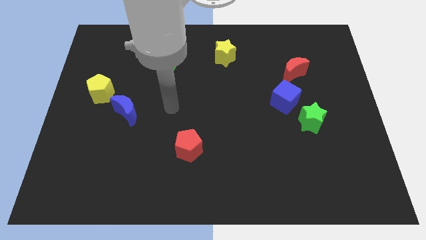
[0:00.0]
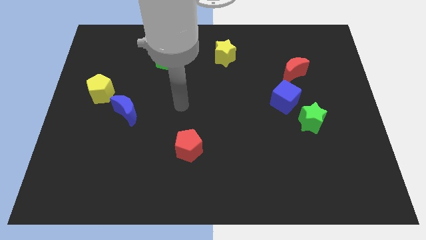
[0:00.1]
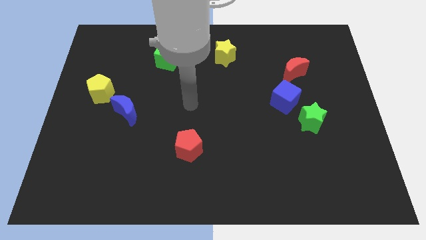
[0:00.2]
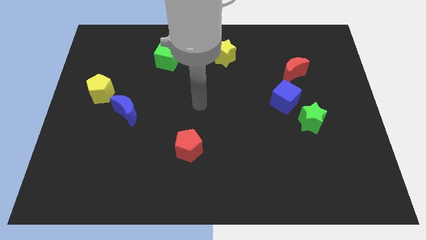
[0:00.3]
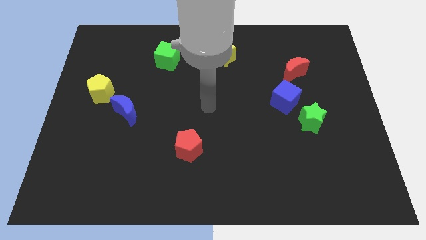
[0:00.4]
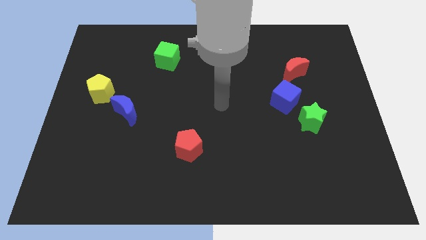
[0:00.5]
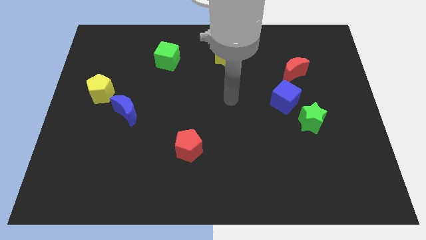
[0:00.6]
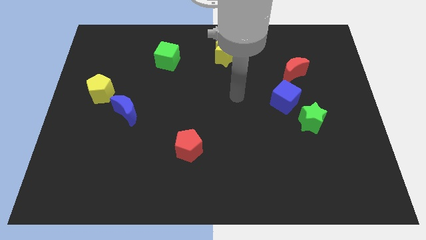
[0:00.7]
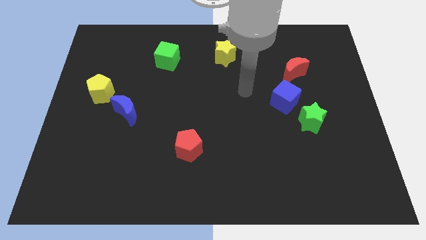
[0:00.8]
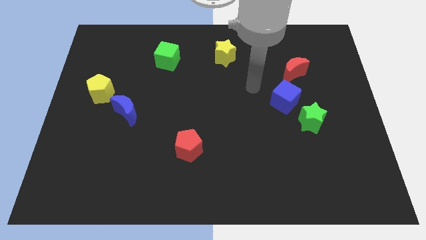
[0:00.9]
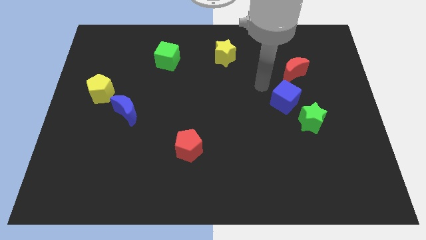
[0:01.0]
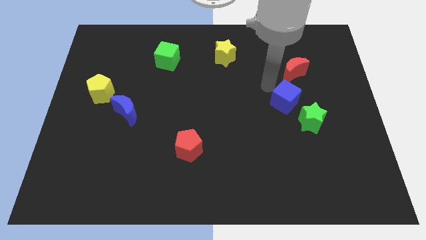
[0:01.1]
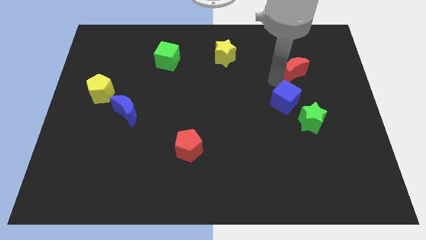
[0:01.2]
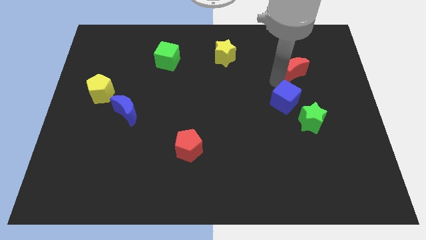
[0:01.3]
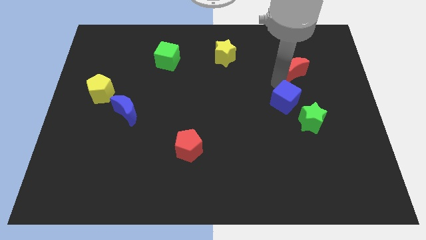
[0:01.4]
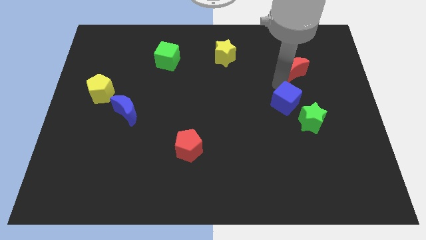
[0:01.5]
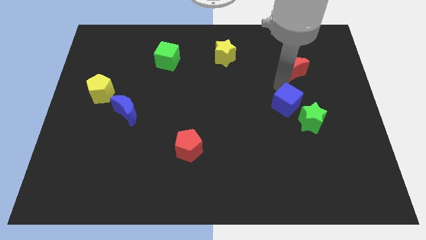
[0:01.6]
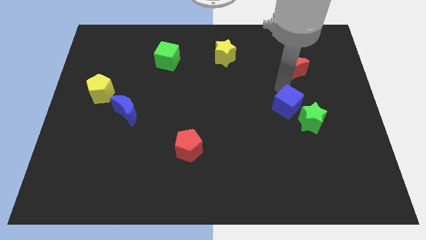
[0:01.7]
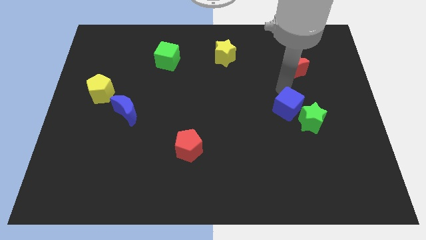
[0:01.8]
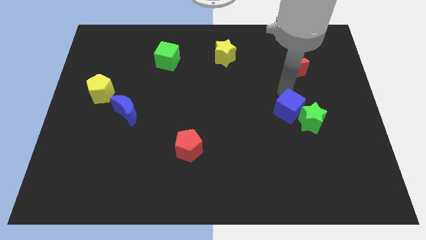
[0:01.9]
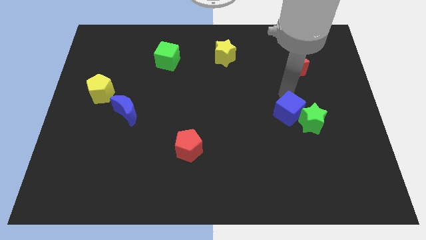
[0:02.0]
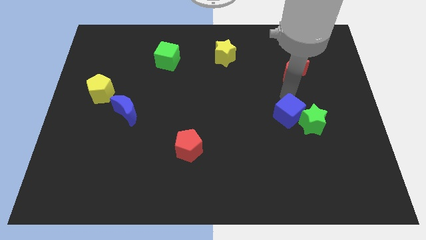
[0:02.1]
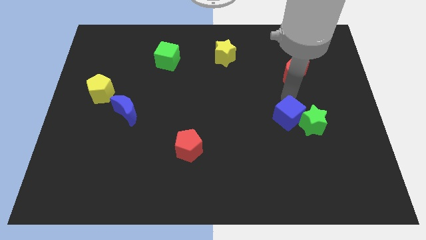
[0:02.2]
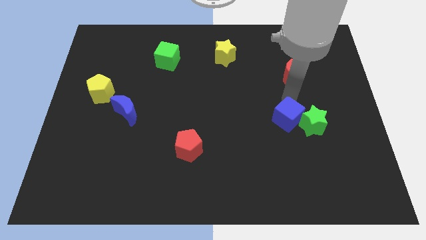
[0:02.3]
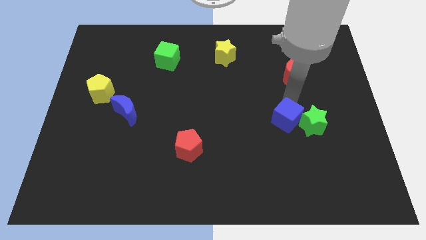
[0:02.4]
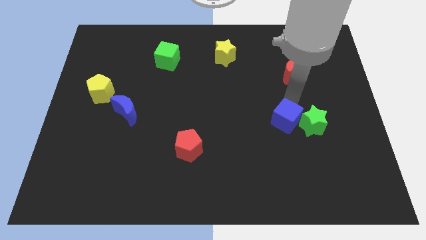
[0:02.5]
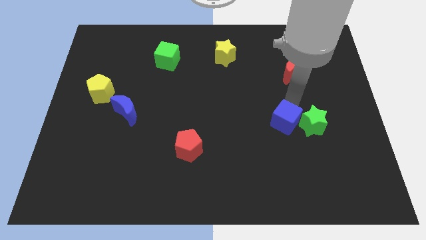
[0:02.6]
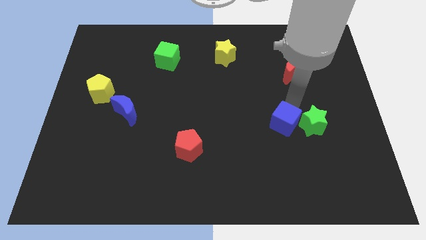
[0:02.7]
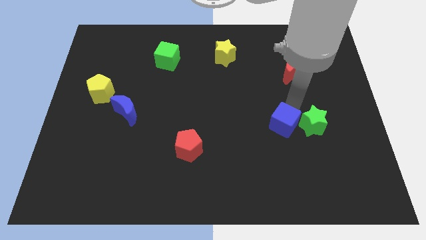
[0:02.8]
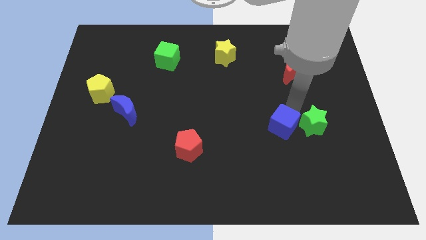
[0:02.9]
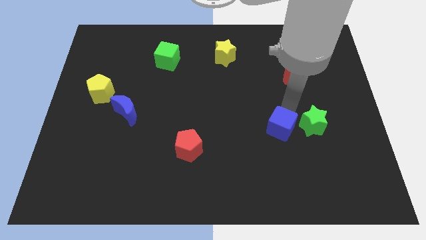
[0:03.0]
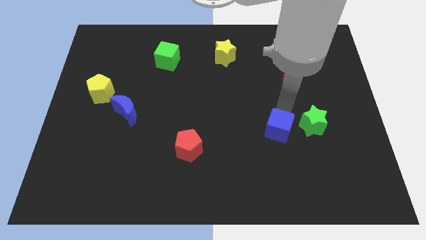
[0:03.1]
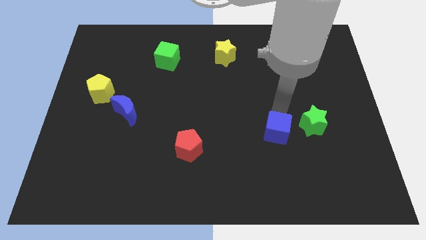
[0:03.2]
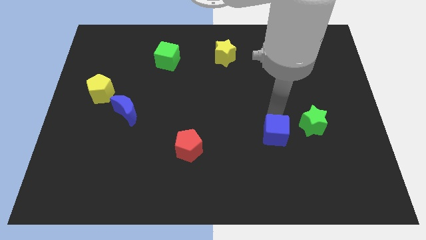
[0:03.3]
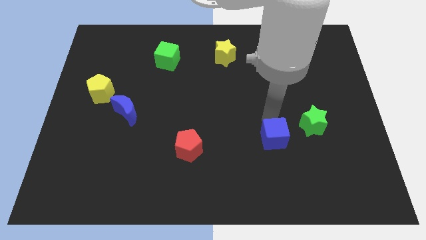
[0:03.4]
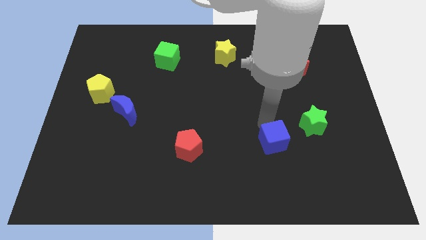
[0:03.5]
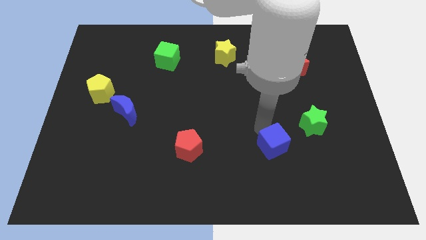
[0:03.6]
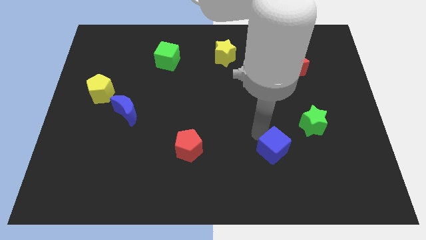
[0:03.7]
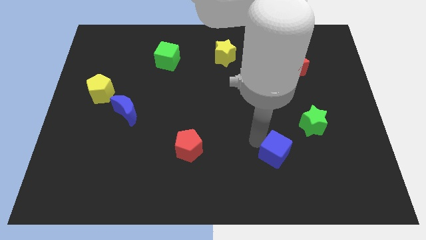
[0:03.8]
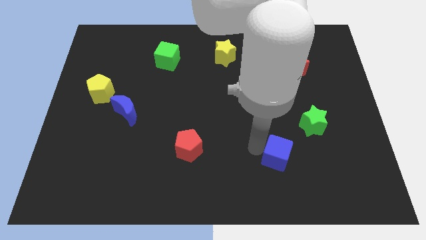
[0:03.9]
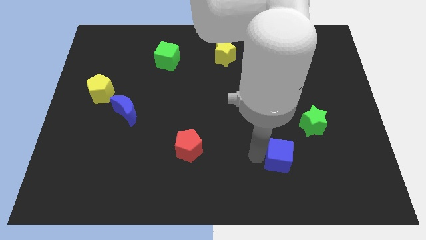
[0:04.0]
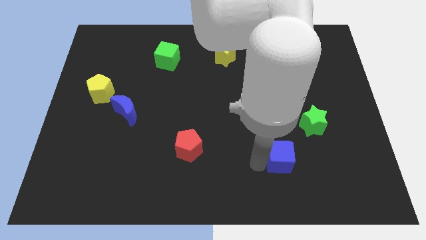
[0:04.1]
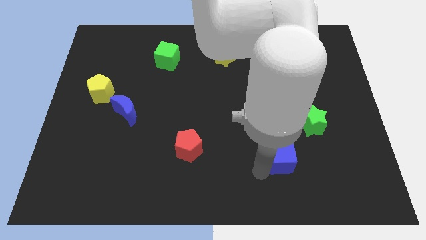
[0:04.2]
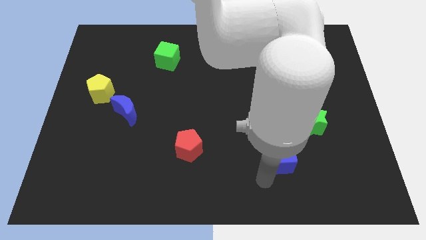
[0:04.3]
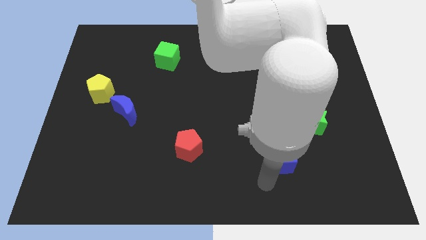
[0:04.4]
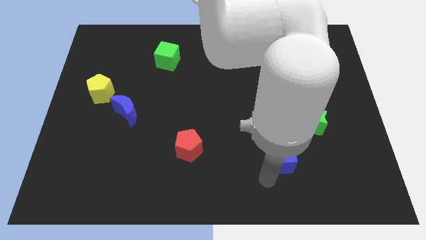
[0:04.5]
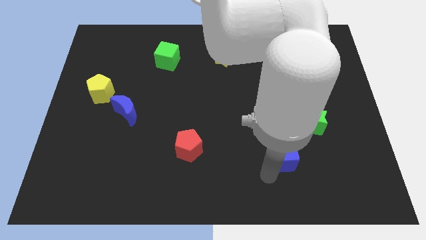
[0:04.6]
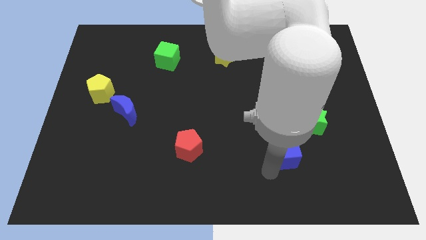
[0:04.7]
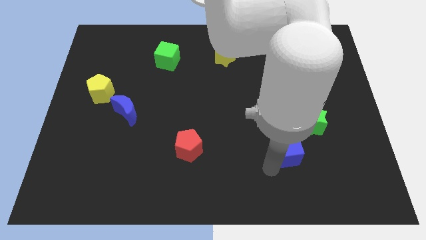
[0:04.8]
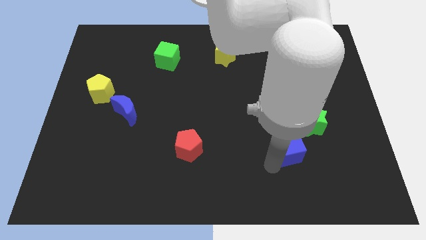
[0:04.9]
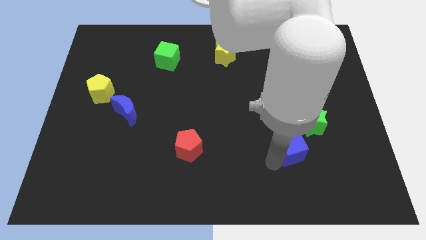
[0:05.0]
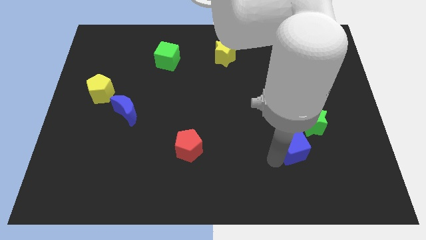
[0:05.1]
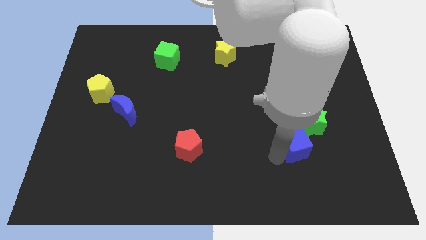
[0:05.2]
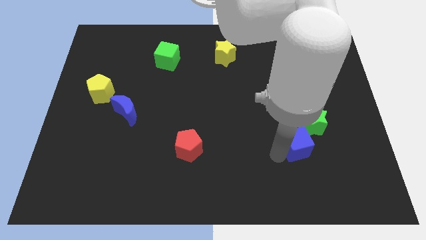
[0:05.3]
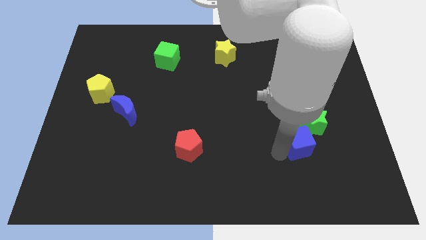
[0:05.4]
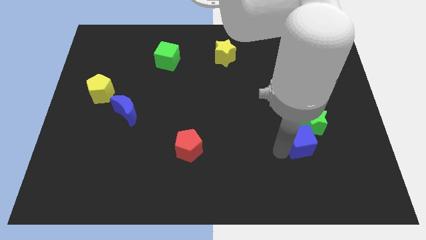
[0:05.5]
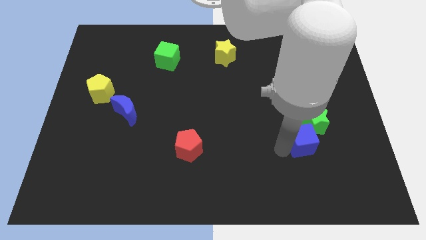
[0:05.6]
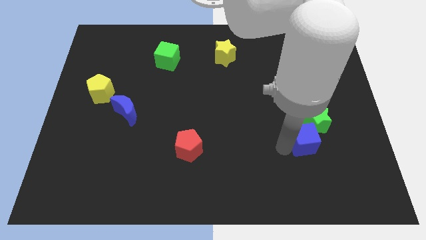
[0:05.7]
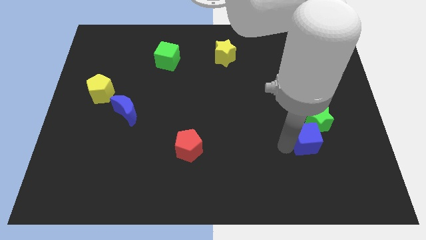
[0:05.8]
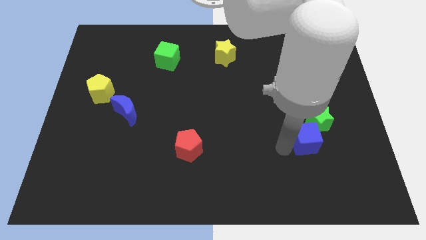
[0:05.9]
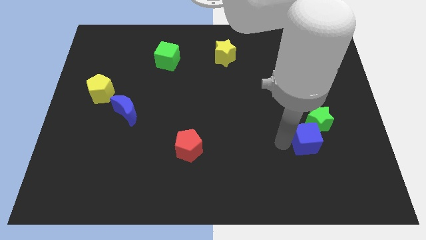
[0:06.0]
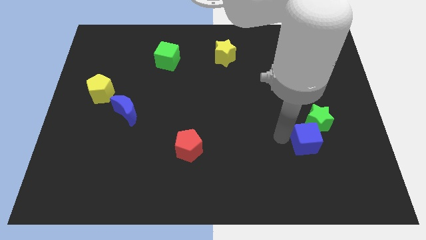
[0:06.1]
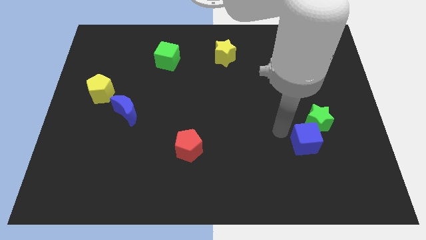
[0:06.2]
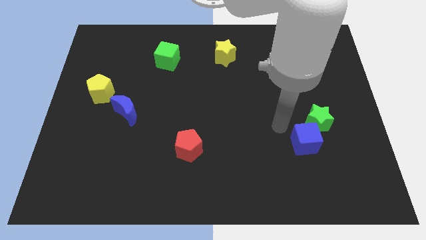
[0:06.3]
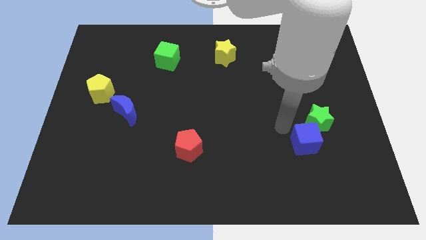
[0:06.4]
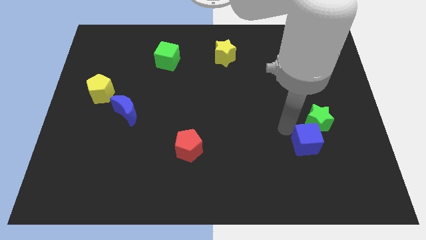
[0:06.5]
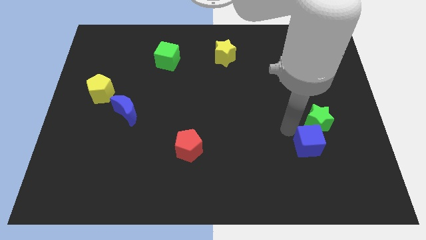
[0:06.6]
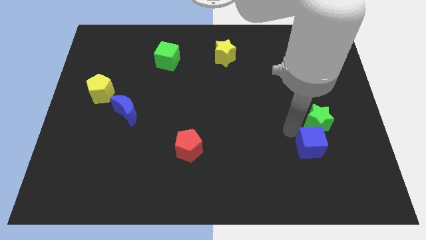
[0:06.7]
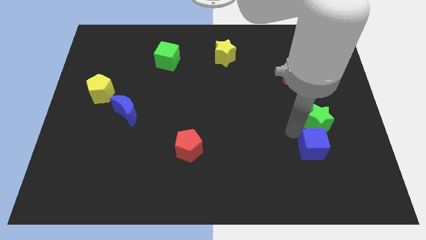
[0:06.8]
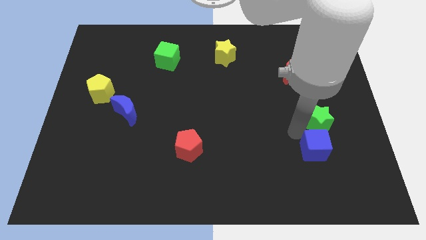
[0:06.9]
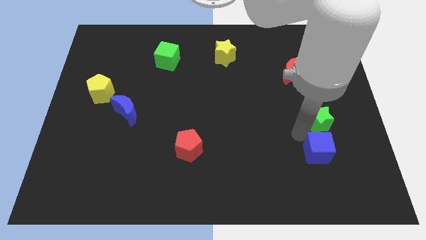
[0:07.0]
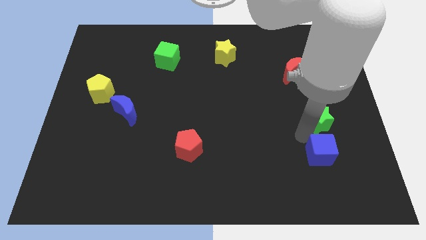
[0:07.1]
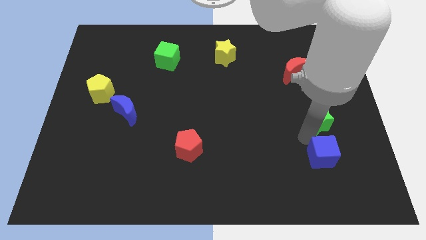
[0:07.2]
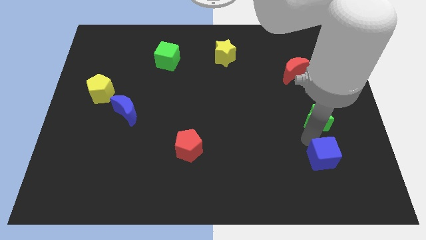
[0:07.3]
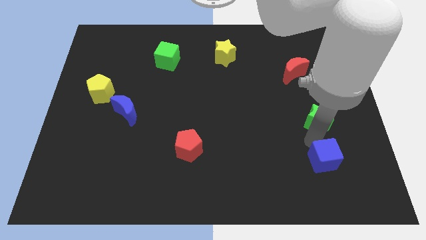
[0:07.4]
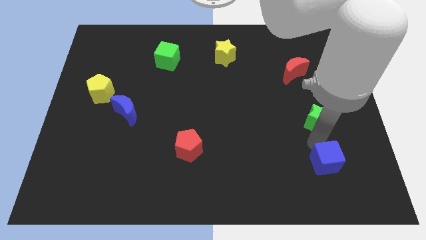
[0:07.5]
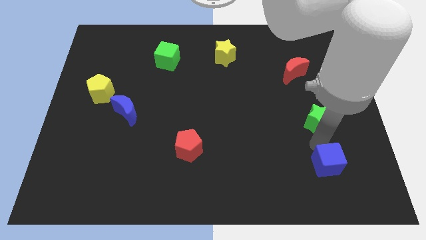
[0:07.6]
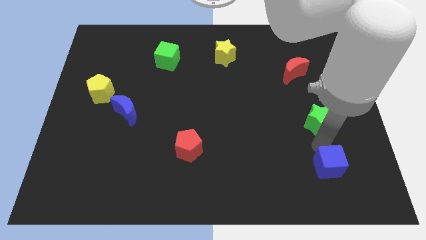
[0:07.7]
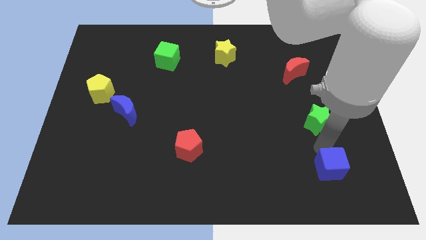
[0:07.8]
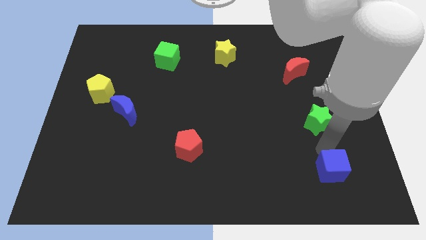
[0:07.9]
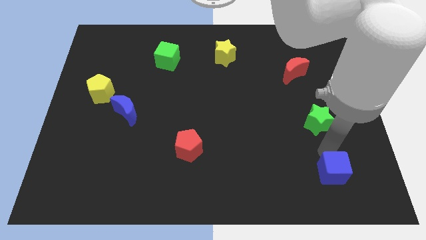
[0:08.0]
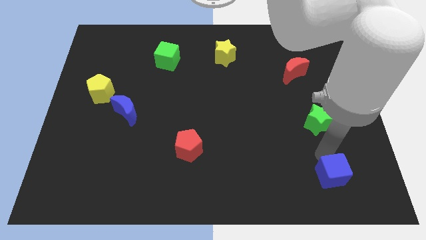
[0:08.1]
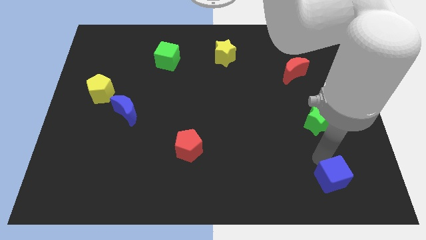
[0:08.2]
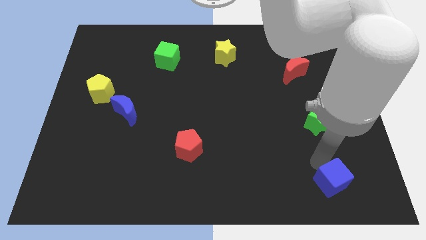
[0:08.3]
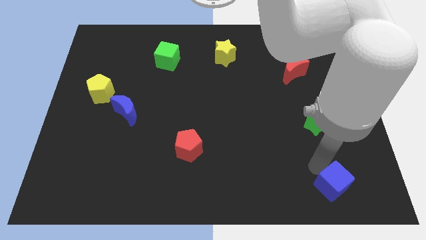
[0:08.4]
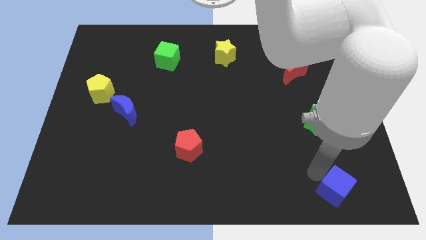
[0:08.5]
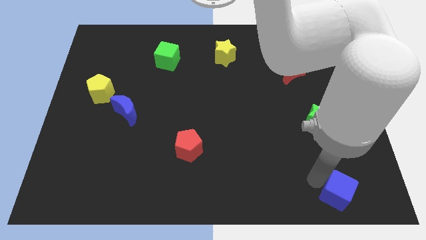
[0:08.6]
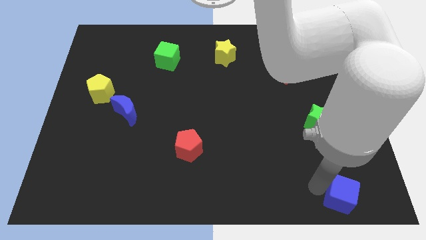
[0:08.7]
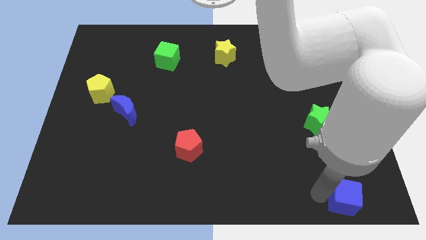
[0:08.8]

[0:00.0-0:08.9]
move the blue cube to the bottom right
